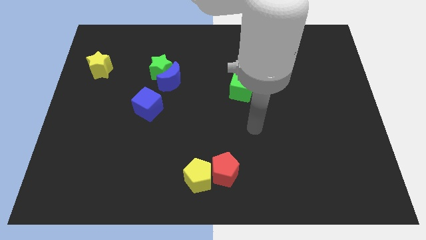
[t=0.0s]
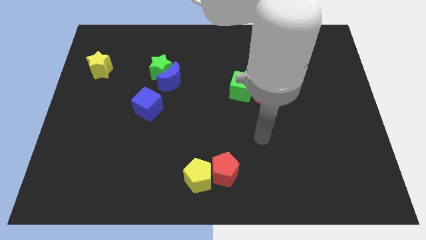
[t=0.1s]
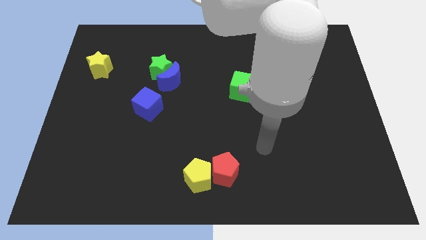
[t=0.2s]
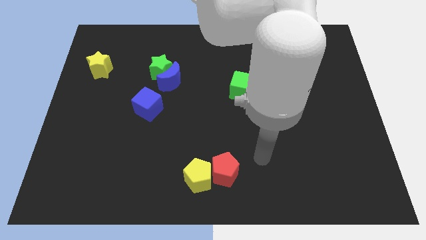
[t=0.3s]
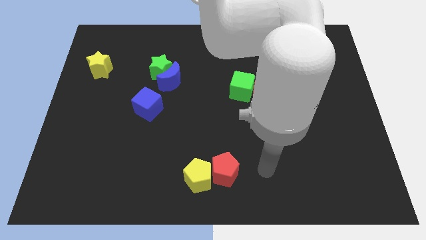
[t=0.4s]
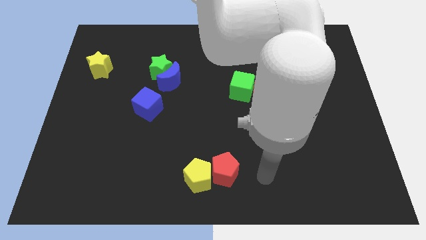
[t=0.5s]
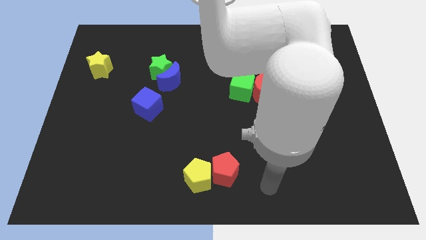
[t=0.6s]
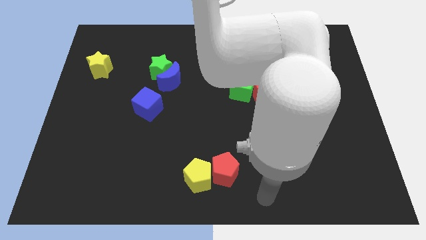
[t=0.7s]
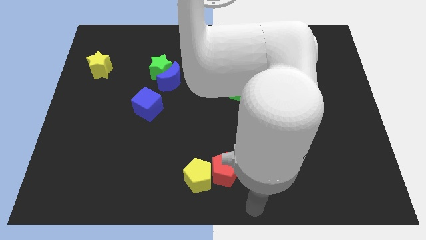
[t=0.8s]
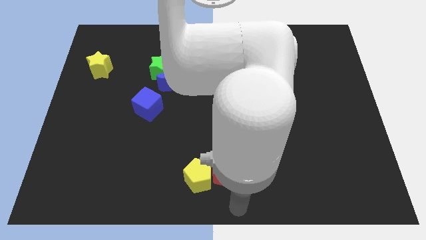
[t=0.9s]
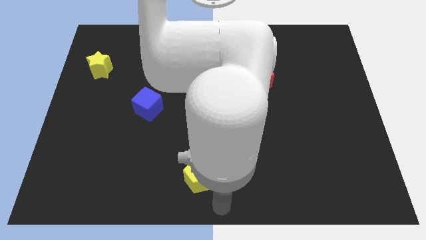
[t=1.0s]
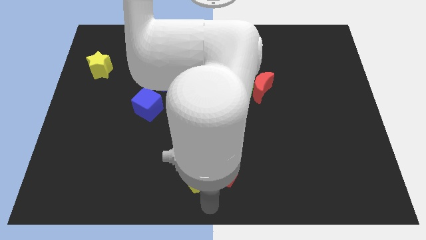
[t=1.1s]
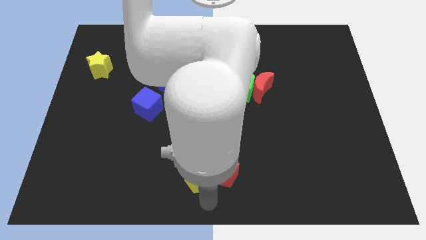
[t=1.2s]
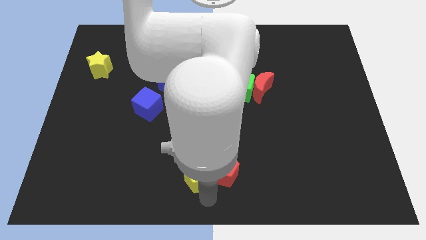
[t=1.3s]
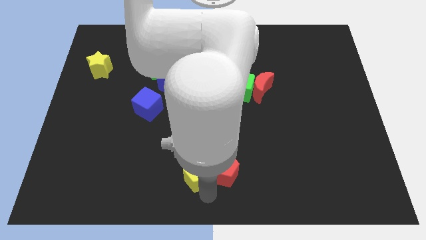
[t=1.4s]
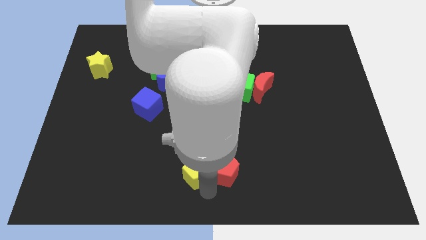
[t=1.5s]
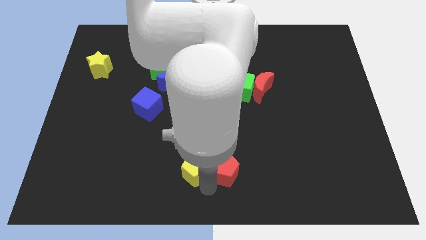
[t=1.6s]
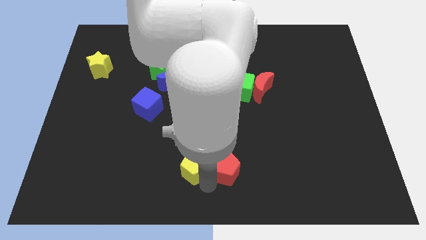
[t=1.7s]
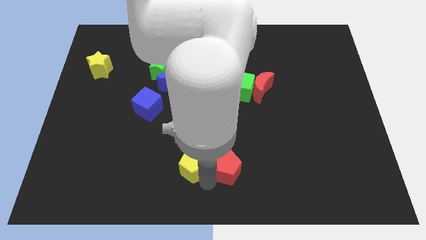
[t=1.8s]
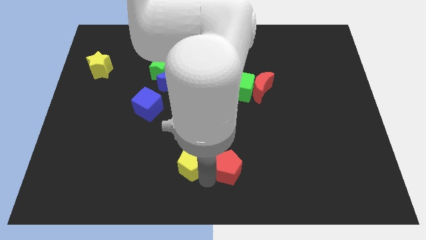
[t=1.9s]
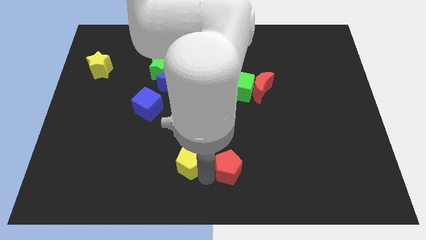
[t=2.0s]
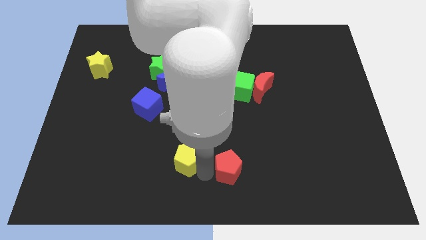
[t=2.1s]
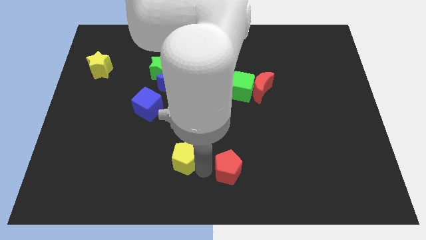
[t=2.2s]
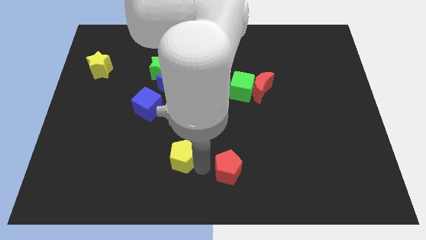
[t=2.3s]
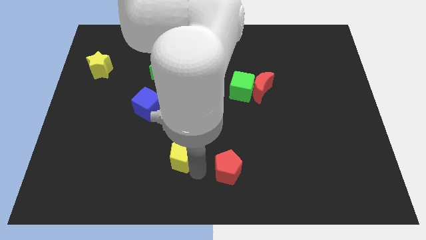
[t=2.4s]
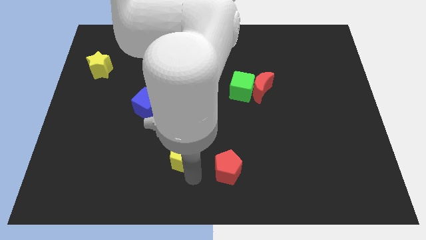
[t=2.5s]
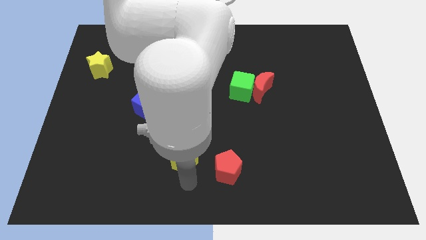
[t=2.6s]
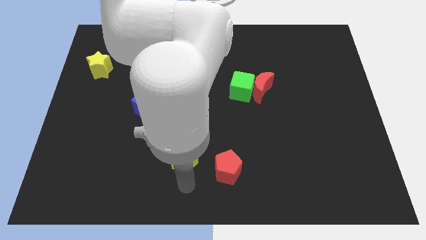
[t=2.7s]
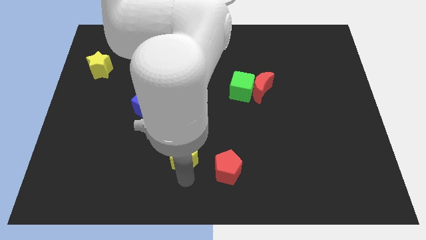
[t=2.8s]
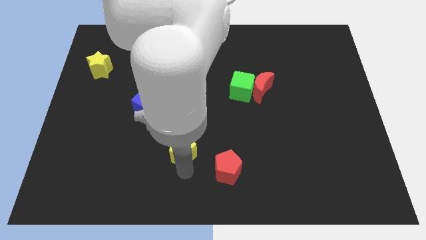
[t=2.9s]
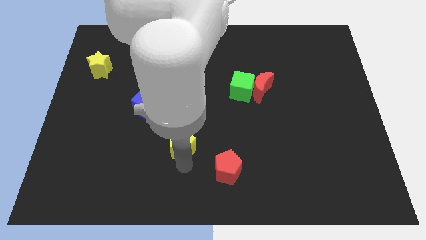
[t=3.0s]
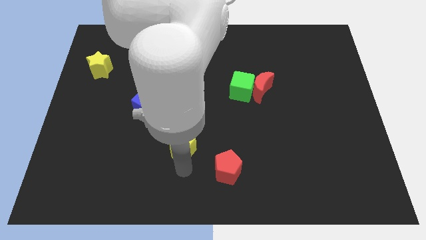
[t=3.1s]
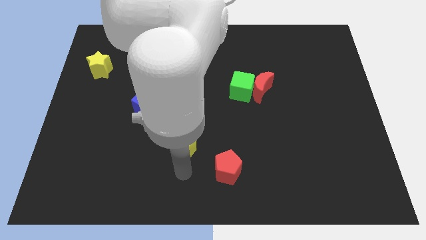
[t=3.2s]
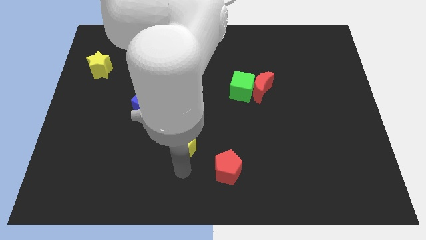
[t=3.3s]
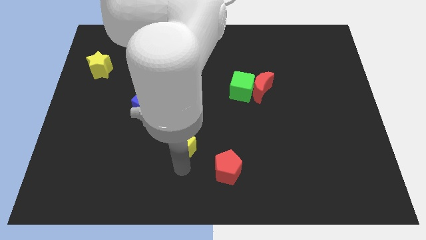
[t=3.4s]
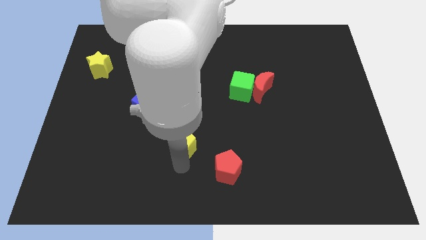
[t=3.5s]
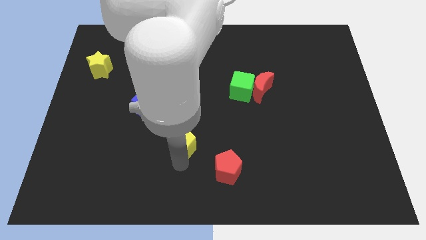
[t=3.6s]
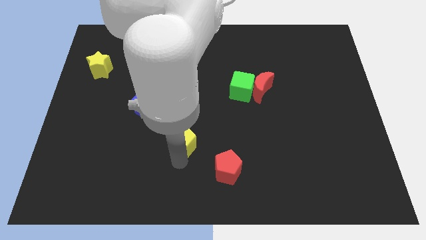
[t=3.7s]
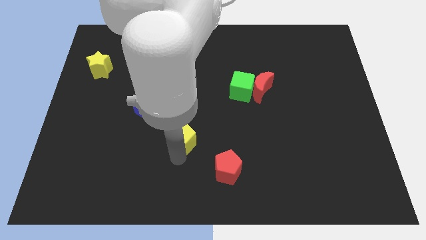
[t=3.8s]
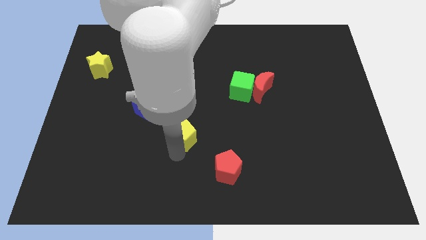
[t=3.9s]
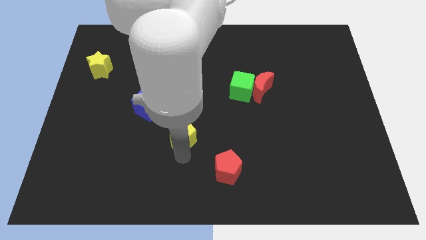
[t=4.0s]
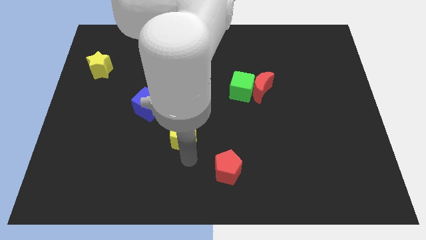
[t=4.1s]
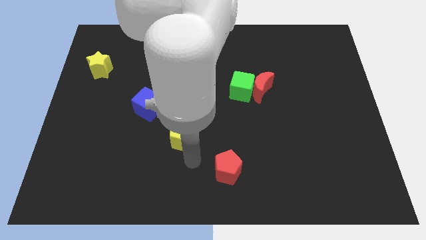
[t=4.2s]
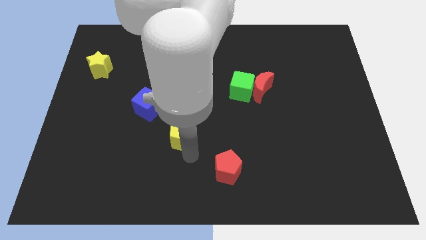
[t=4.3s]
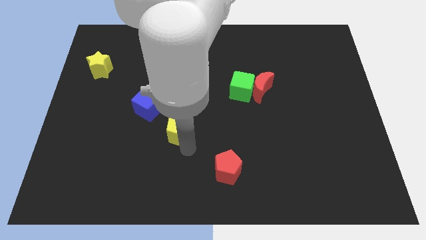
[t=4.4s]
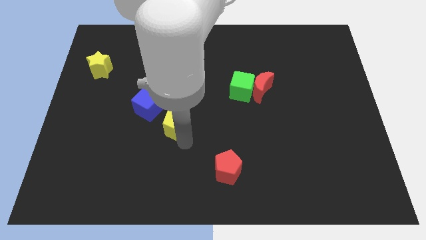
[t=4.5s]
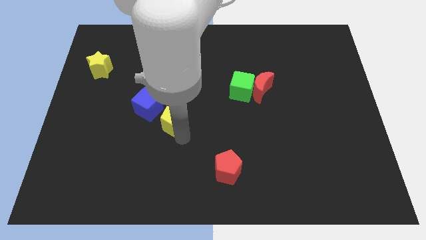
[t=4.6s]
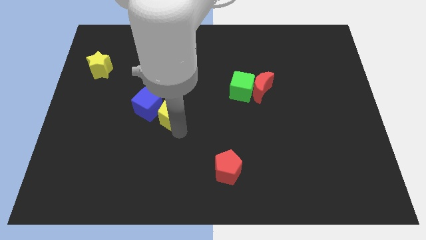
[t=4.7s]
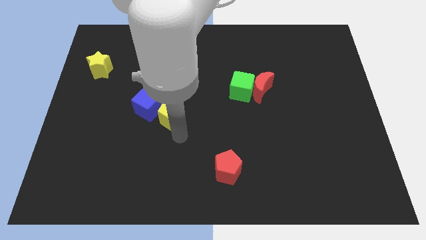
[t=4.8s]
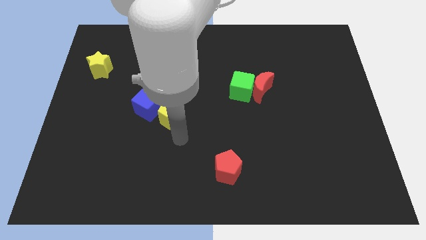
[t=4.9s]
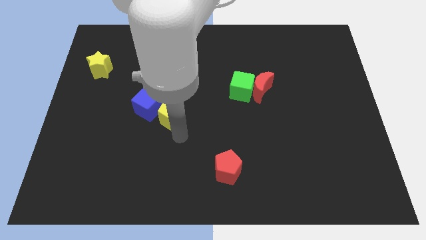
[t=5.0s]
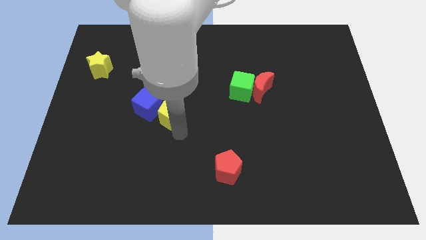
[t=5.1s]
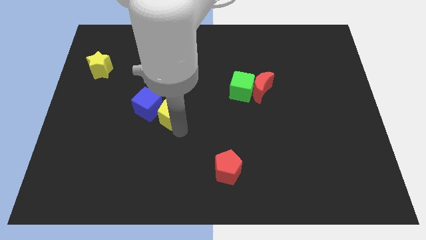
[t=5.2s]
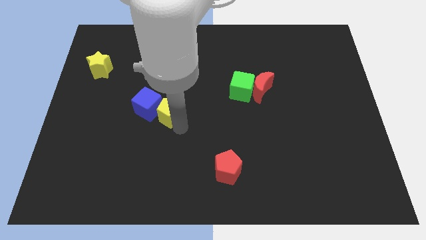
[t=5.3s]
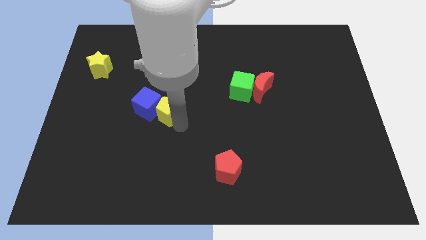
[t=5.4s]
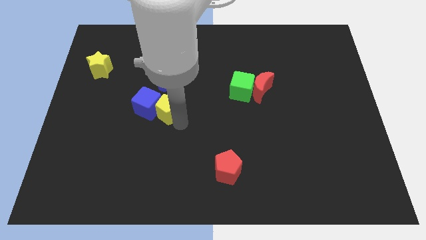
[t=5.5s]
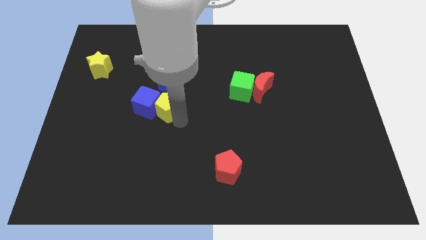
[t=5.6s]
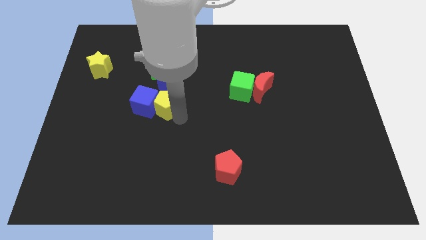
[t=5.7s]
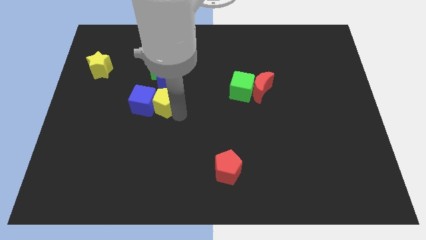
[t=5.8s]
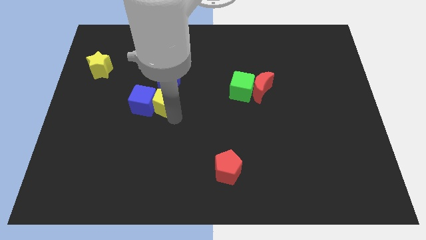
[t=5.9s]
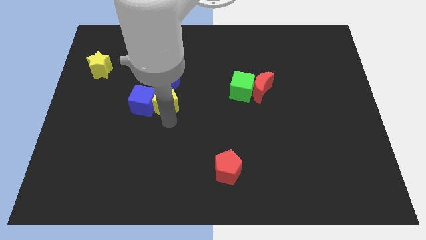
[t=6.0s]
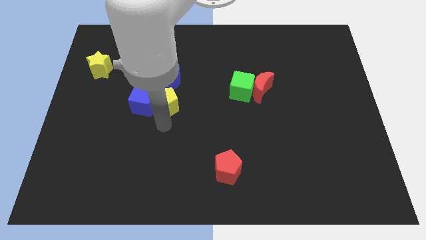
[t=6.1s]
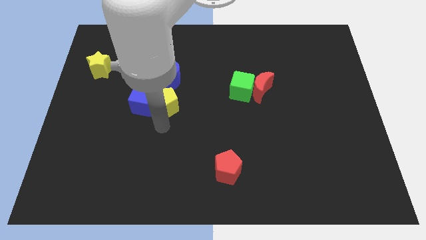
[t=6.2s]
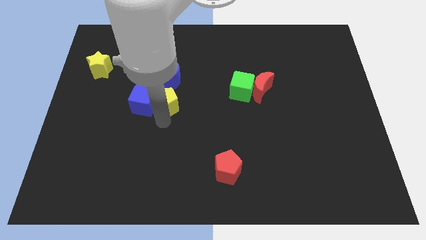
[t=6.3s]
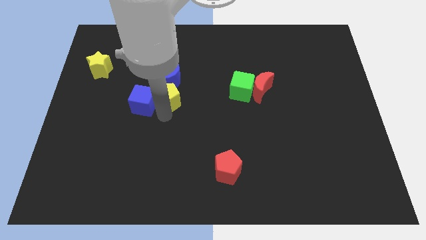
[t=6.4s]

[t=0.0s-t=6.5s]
put the yellow pentagon close to the blue moon
